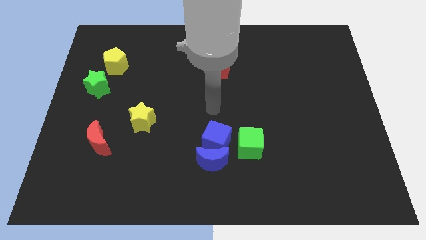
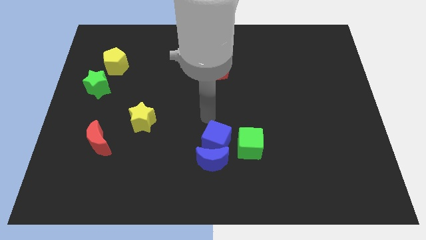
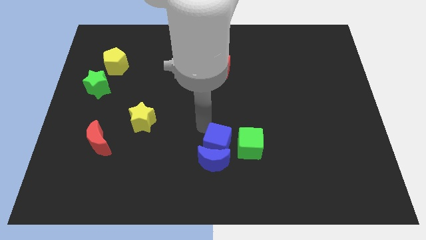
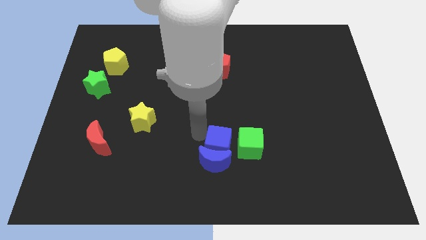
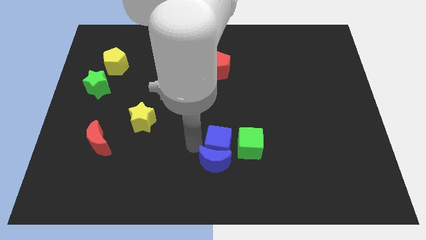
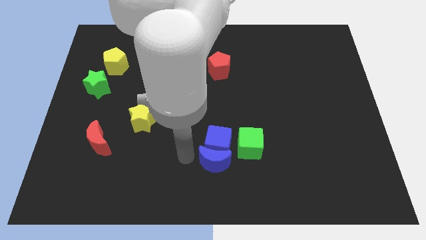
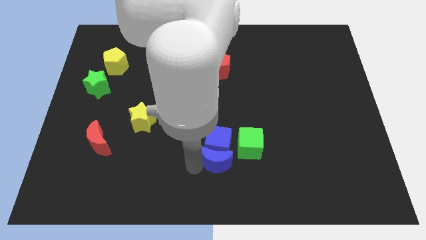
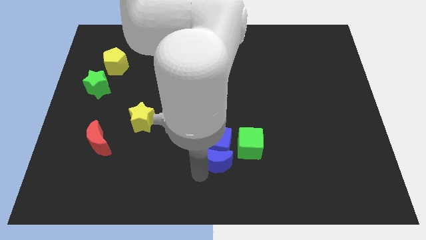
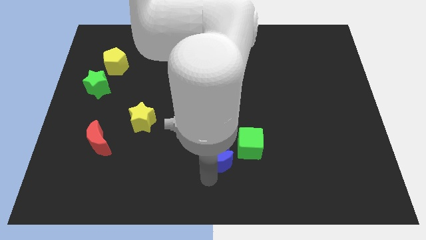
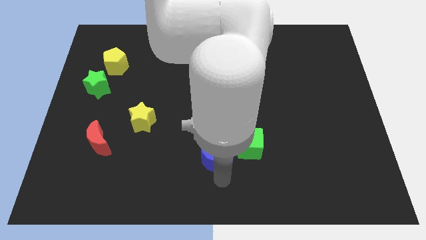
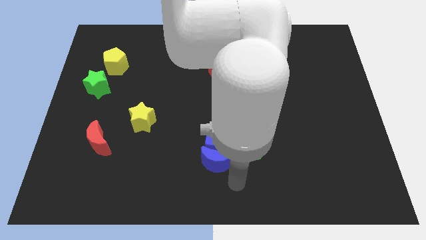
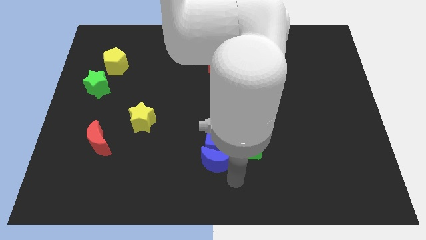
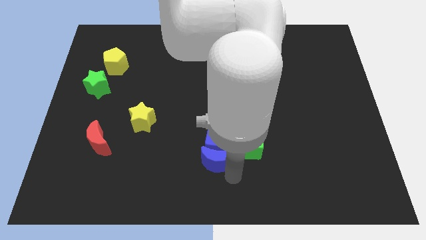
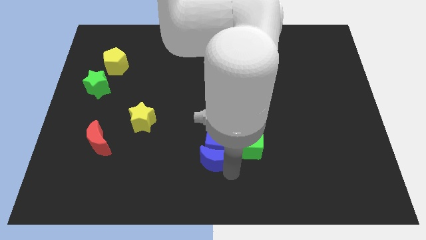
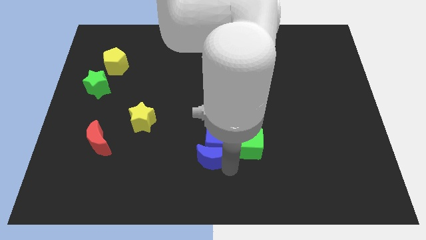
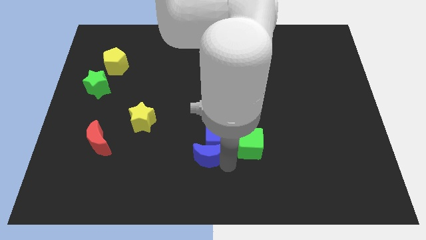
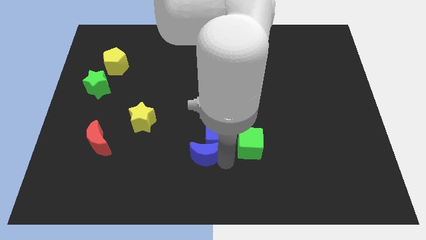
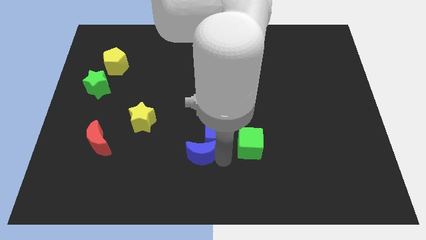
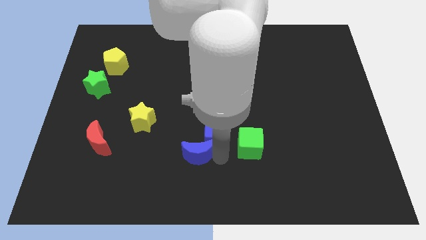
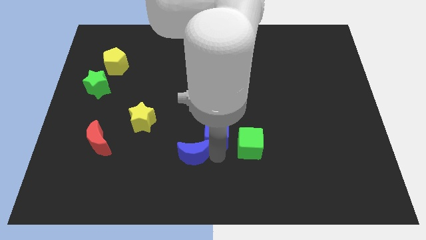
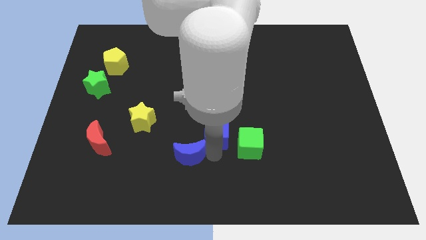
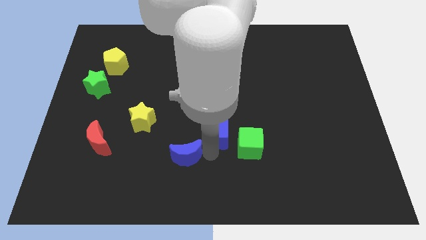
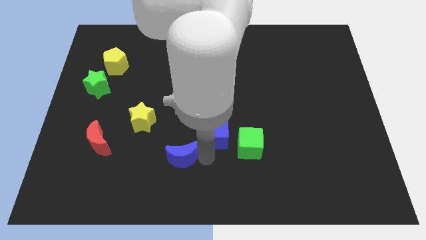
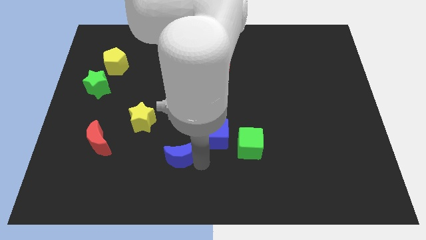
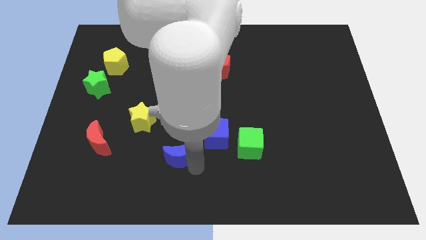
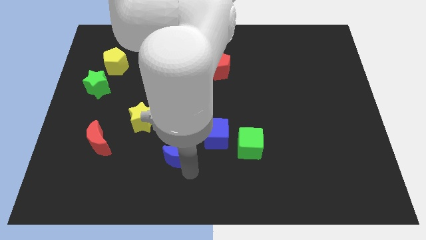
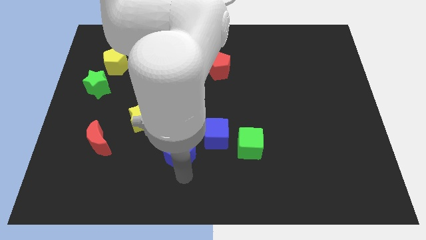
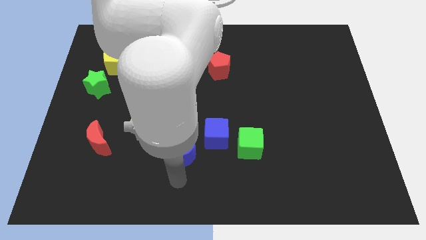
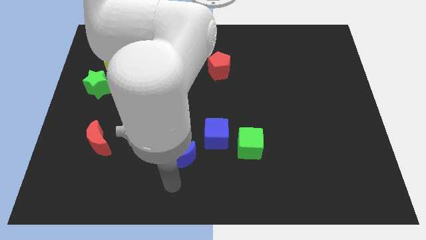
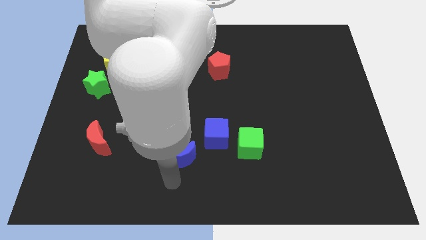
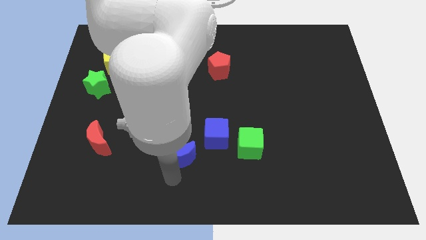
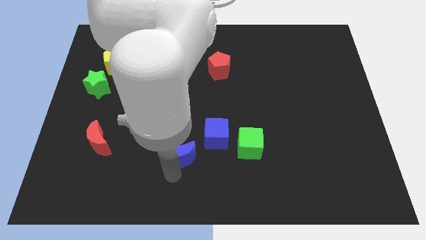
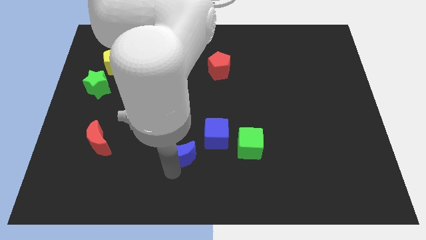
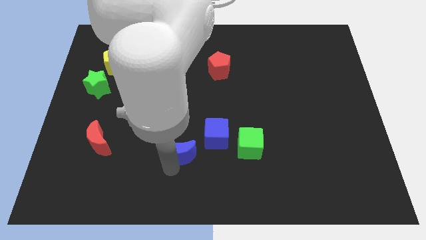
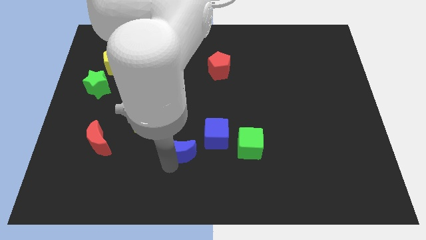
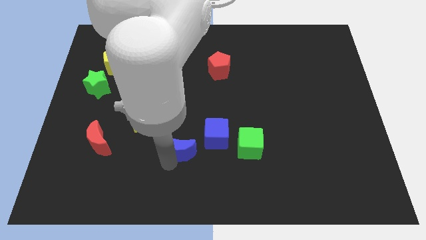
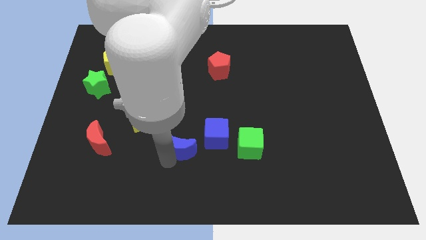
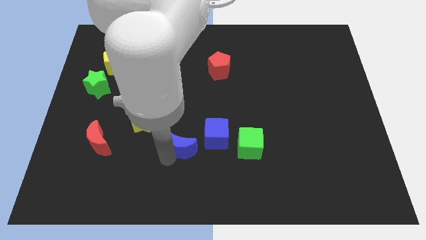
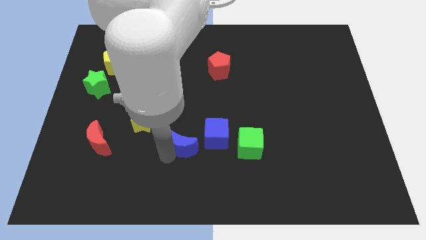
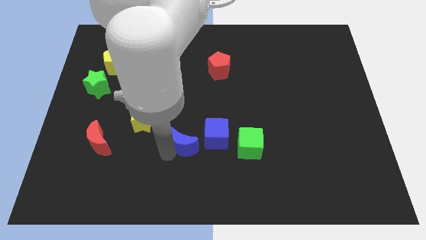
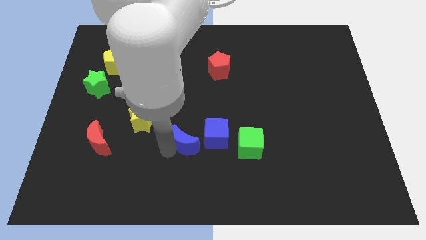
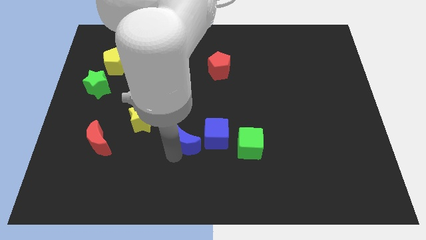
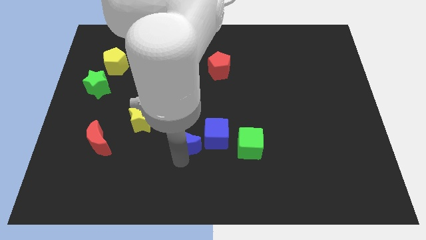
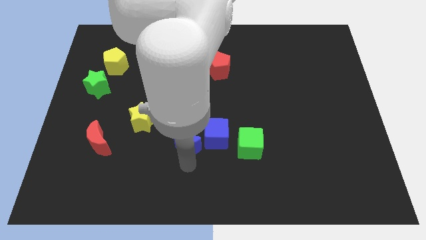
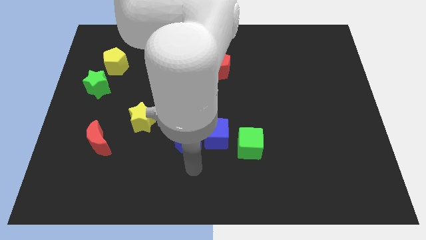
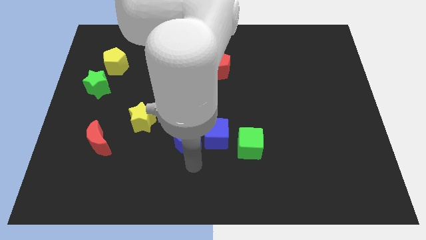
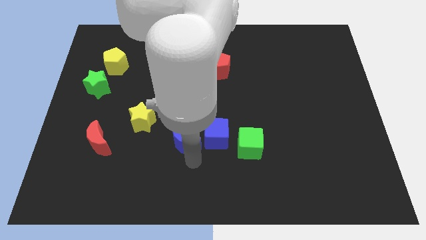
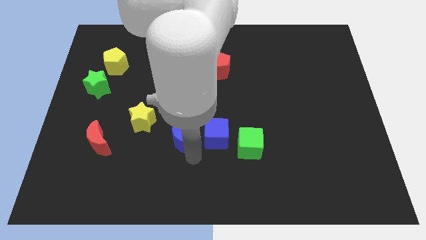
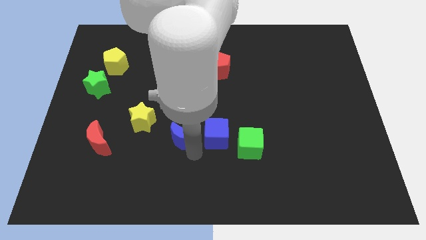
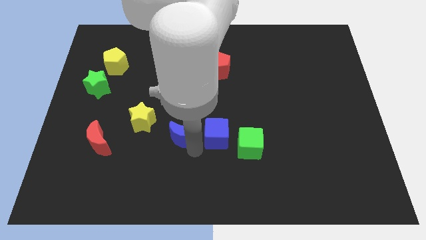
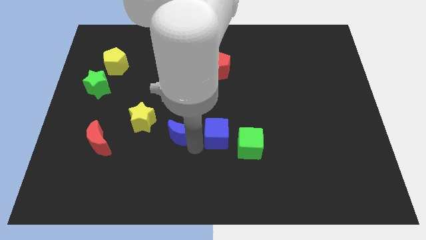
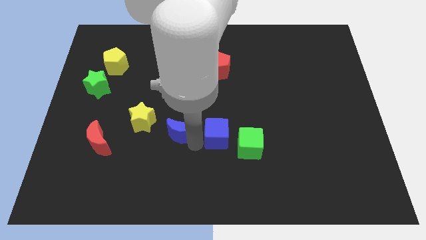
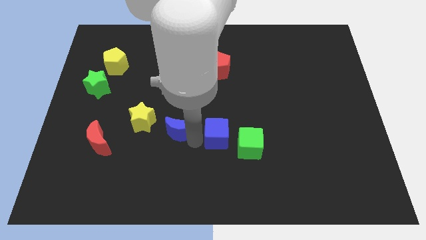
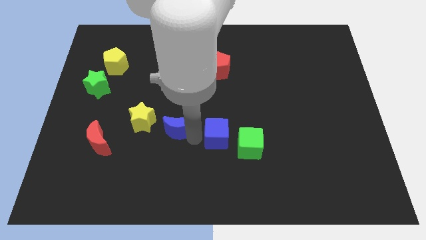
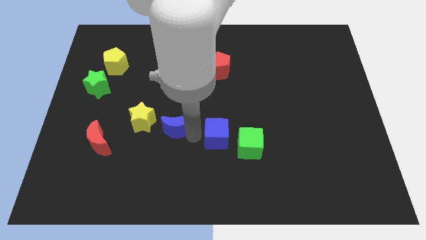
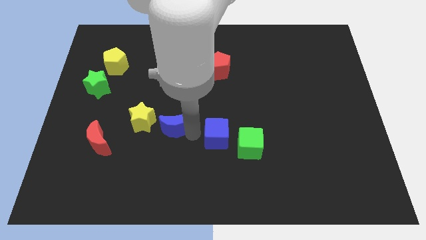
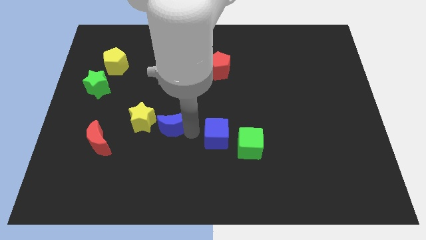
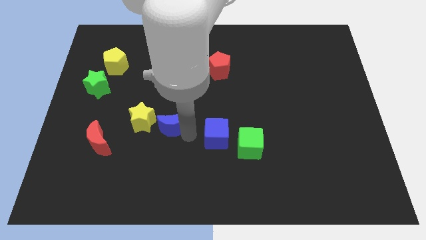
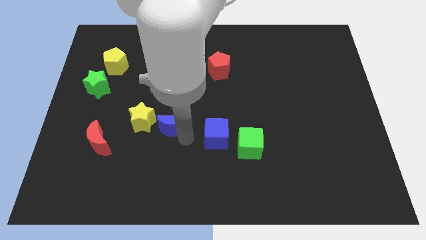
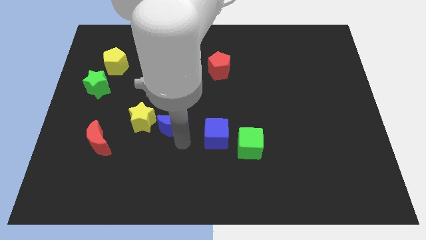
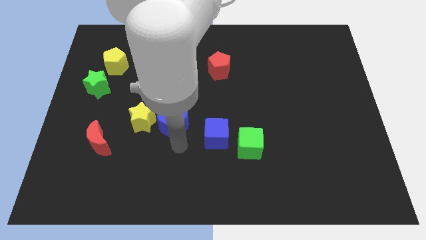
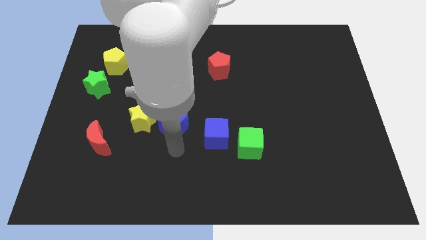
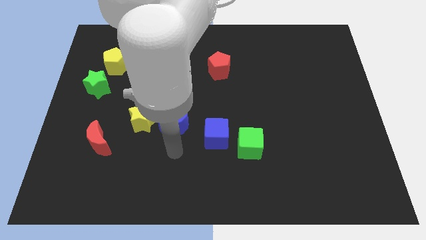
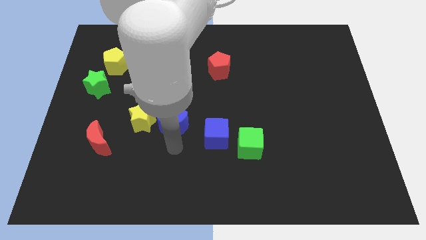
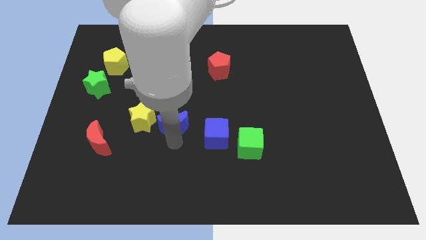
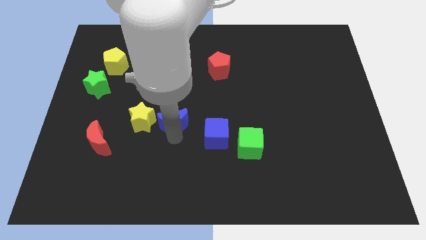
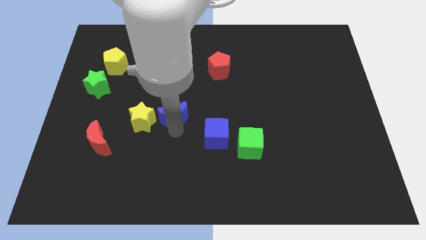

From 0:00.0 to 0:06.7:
move the blue moon to the top right side of the yellow star
